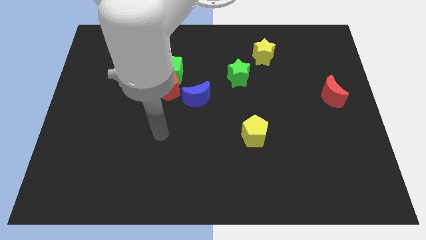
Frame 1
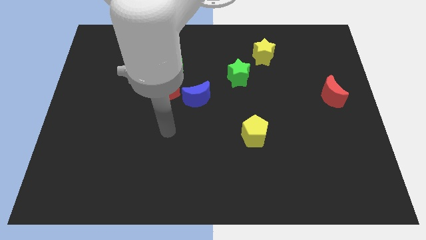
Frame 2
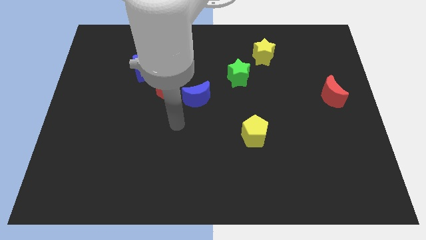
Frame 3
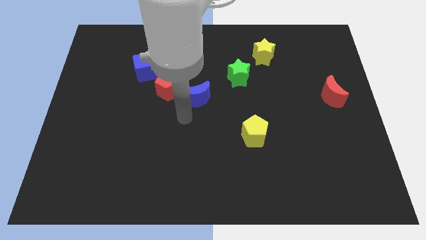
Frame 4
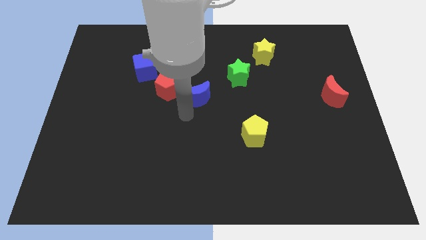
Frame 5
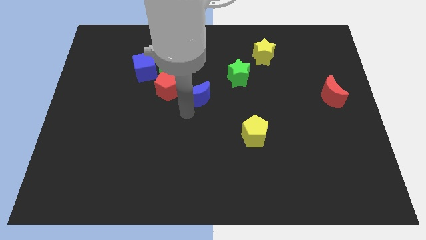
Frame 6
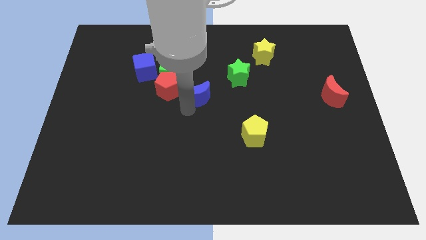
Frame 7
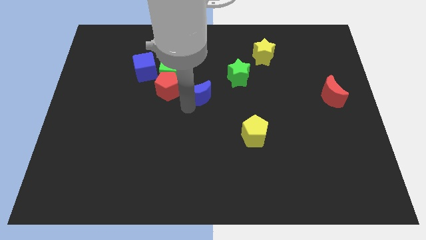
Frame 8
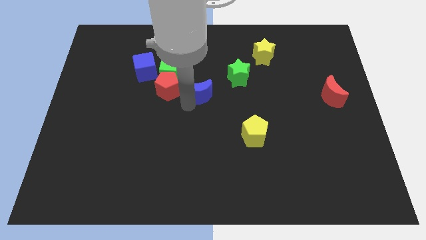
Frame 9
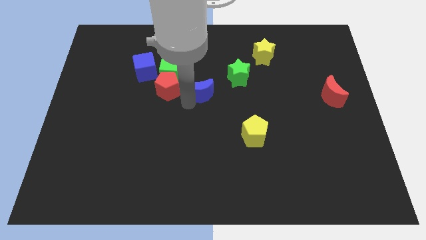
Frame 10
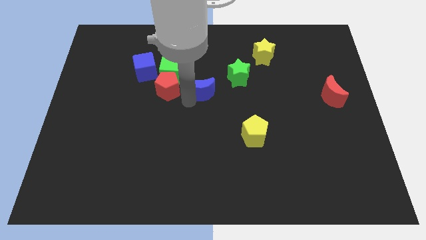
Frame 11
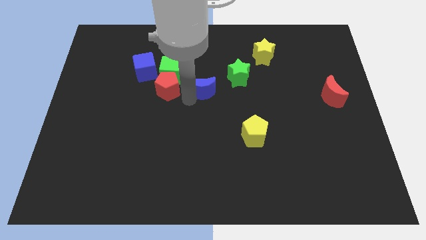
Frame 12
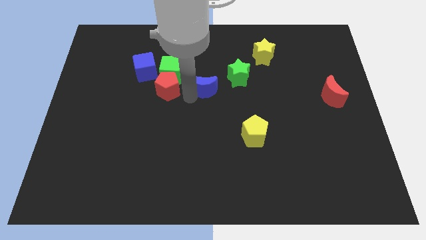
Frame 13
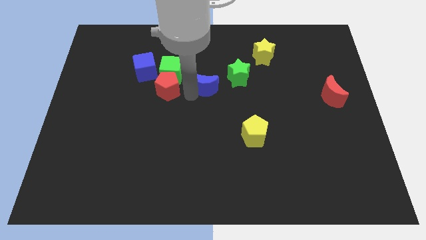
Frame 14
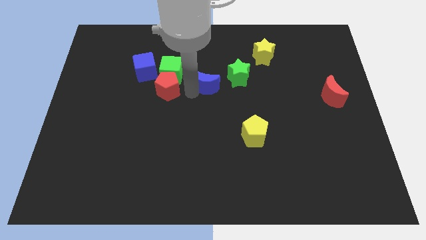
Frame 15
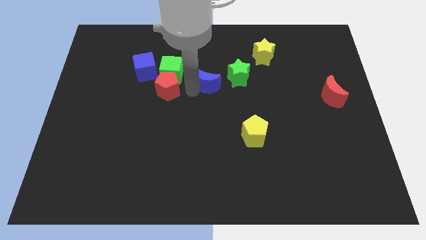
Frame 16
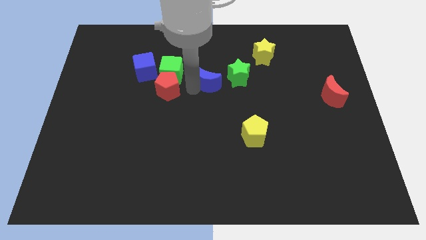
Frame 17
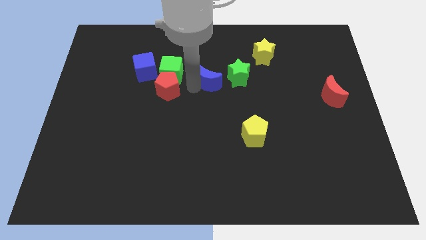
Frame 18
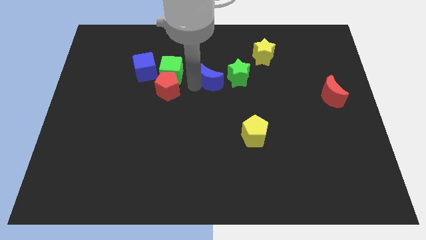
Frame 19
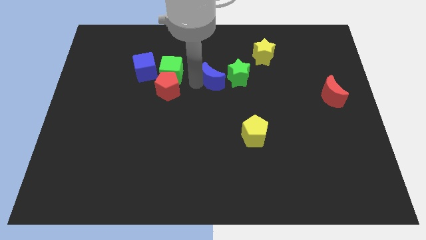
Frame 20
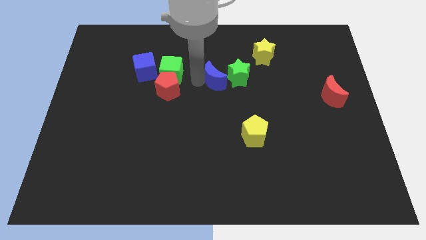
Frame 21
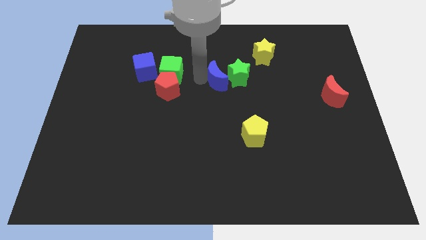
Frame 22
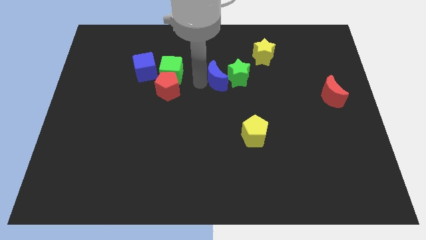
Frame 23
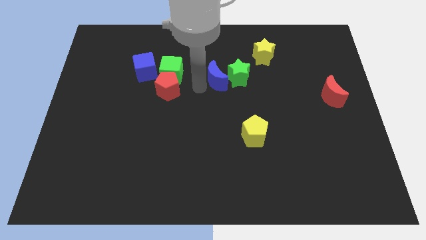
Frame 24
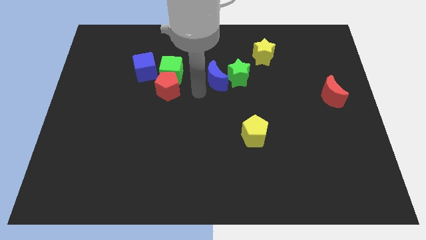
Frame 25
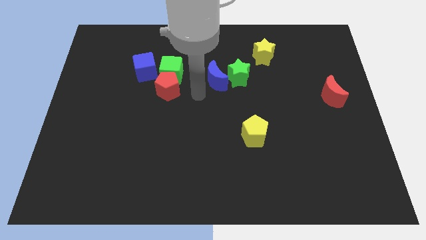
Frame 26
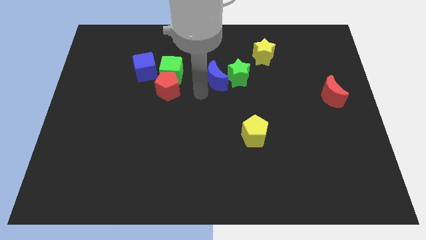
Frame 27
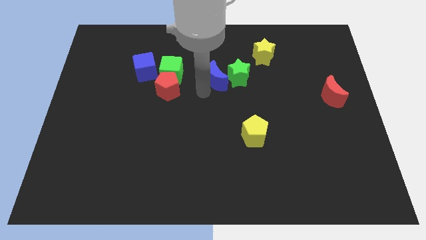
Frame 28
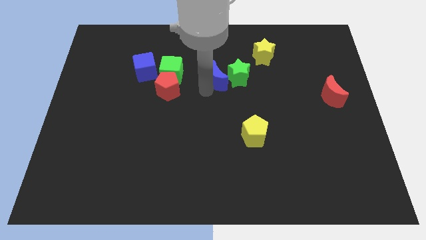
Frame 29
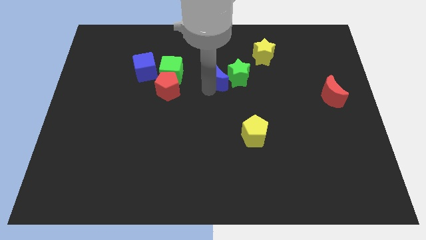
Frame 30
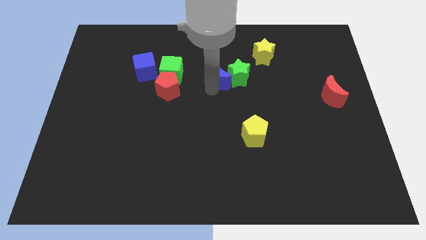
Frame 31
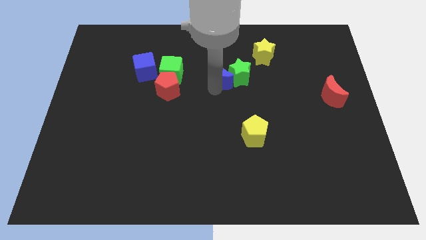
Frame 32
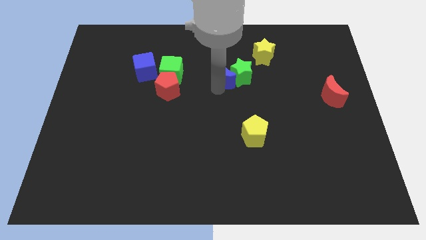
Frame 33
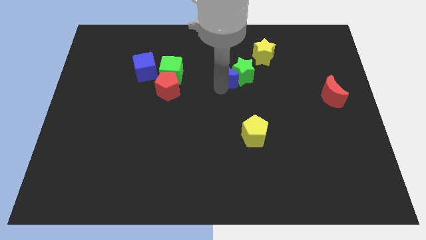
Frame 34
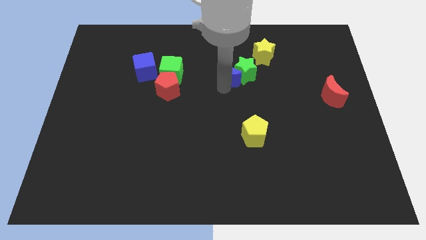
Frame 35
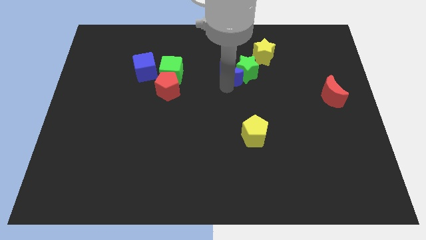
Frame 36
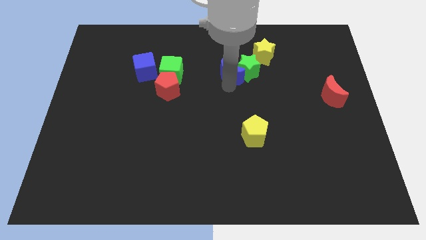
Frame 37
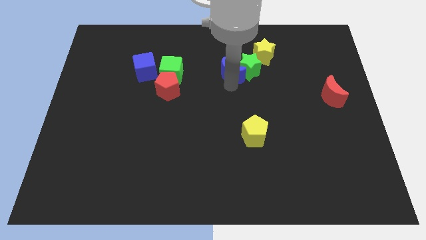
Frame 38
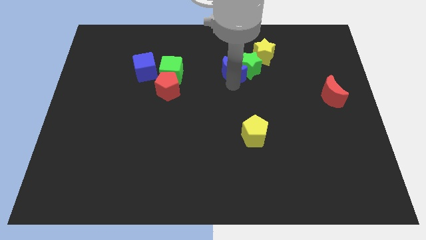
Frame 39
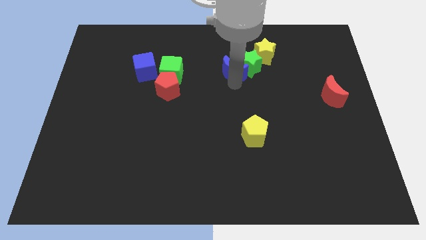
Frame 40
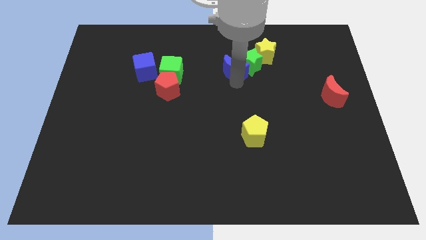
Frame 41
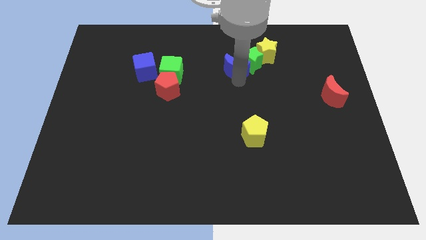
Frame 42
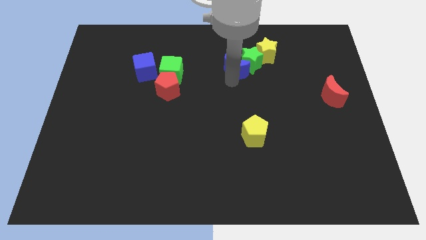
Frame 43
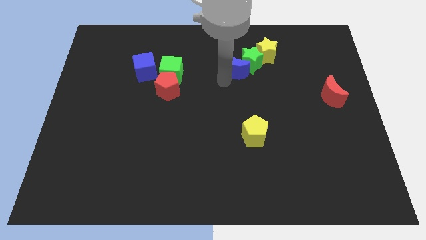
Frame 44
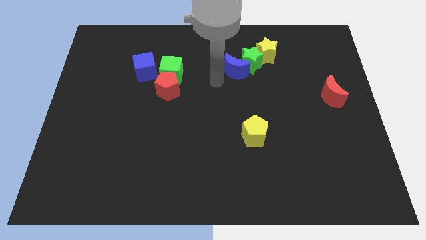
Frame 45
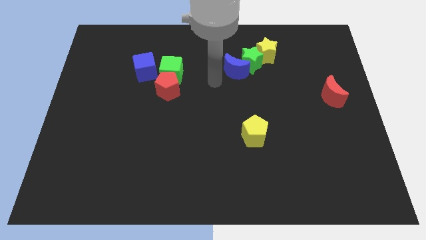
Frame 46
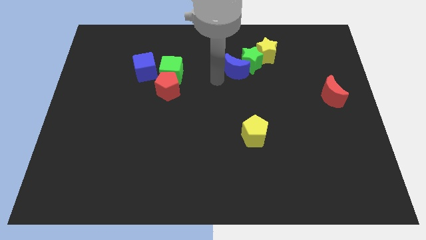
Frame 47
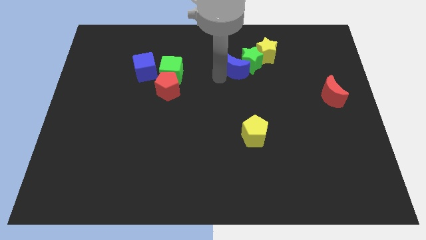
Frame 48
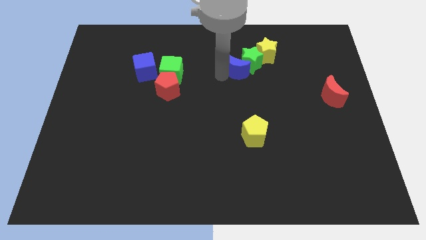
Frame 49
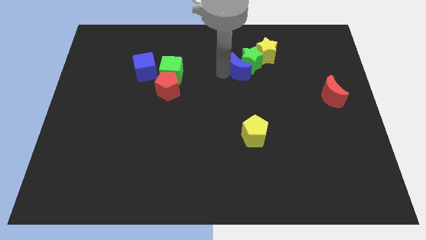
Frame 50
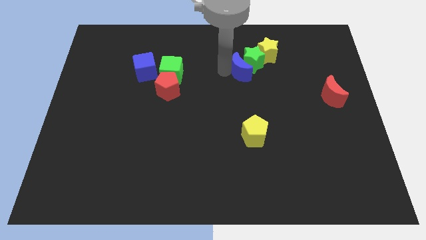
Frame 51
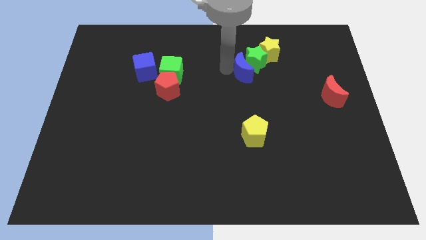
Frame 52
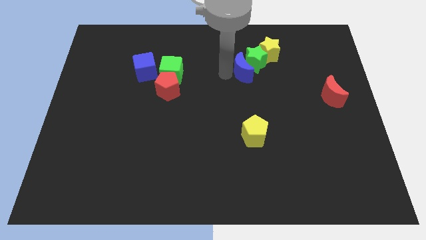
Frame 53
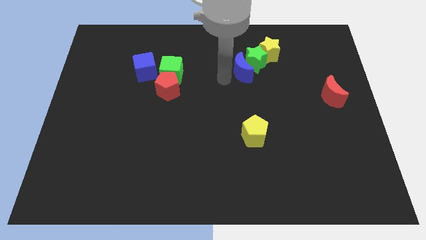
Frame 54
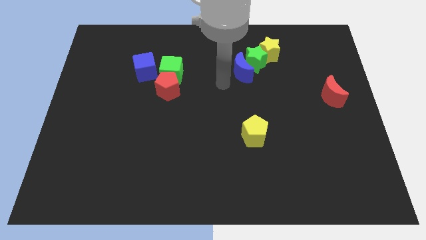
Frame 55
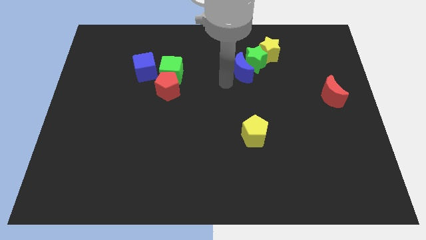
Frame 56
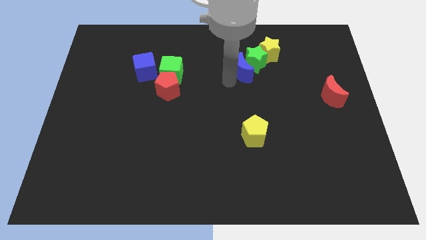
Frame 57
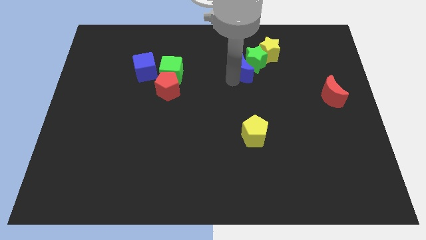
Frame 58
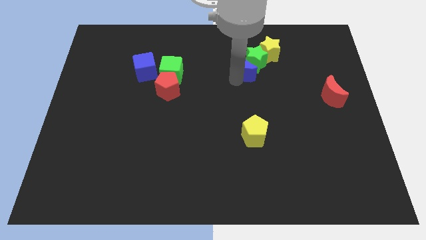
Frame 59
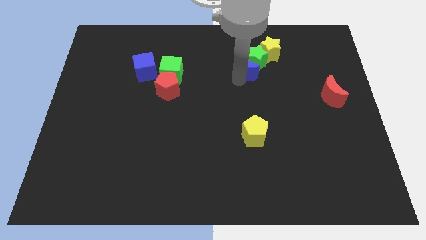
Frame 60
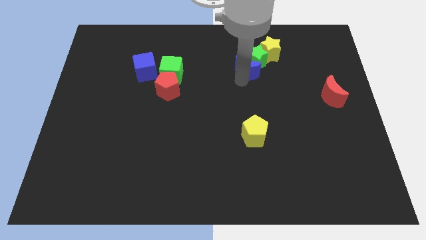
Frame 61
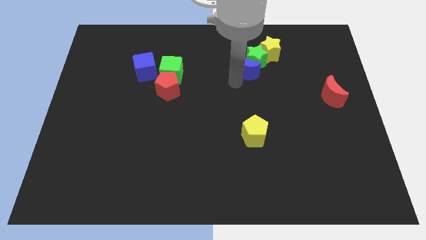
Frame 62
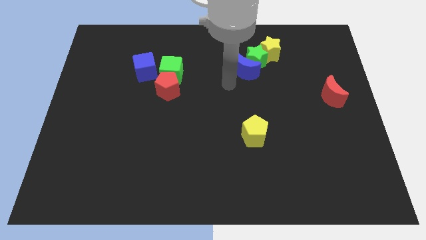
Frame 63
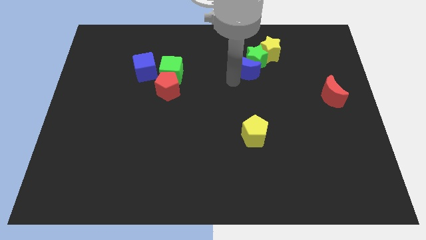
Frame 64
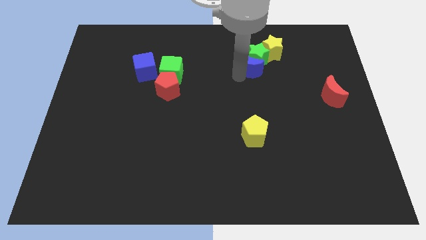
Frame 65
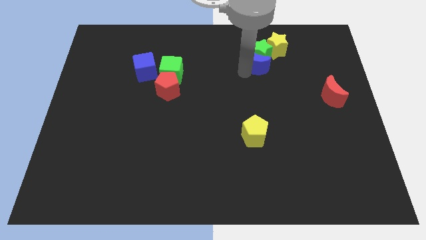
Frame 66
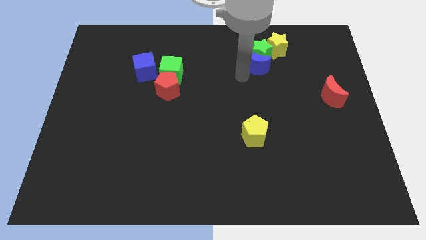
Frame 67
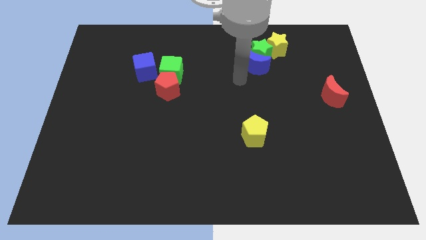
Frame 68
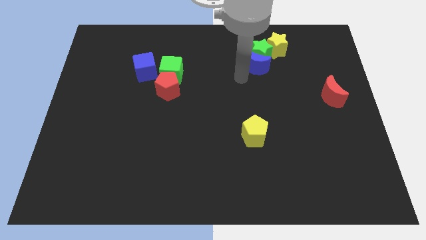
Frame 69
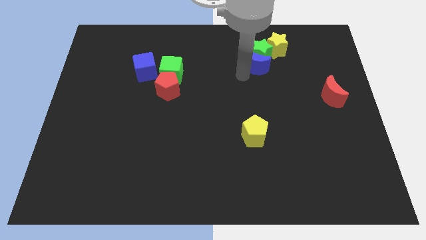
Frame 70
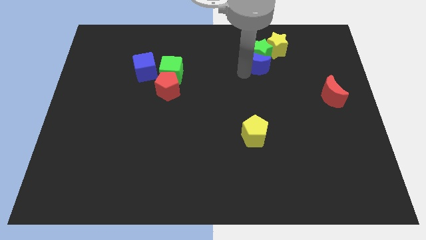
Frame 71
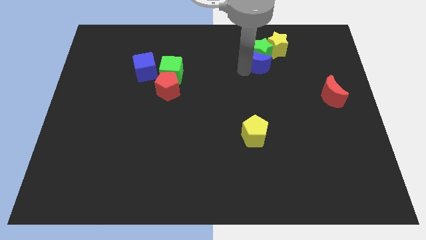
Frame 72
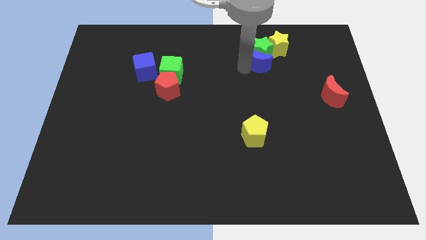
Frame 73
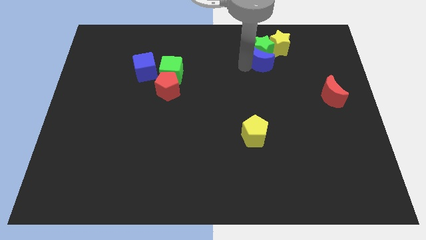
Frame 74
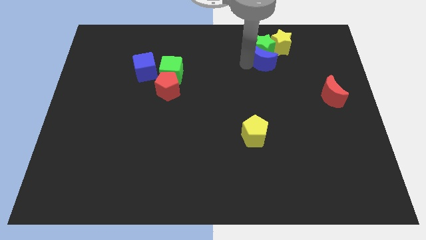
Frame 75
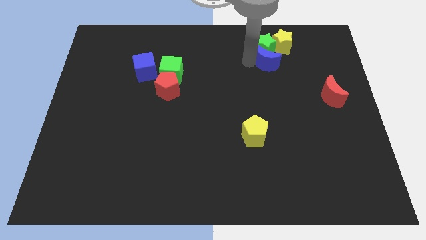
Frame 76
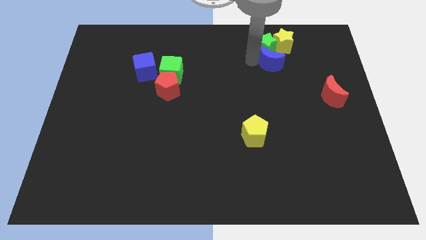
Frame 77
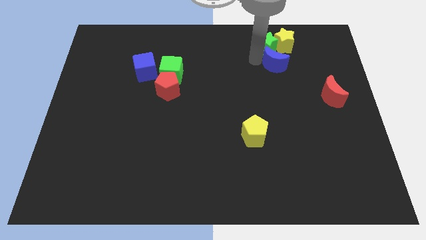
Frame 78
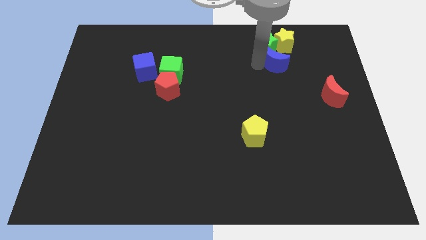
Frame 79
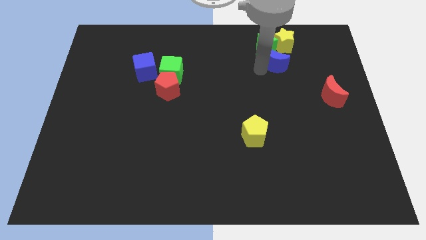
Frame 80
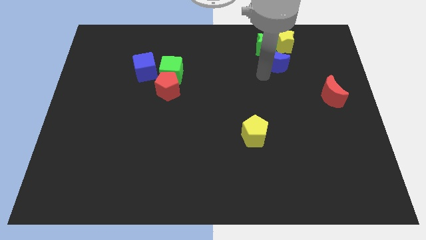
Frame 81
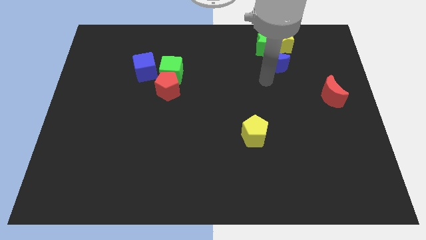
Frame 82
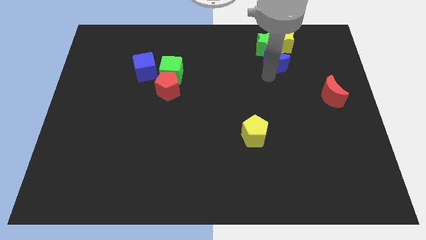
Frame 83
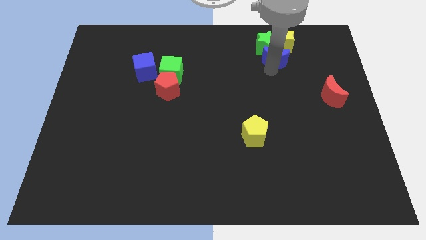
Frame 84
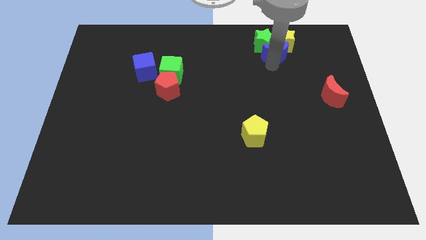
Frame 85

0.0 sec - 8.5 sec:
put the blue moon towards the yellow star
